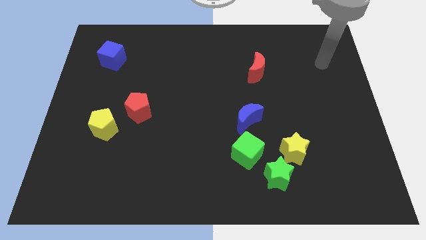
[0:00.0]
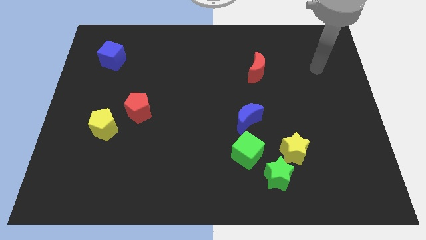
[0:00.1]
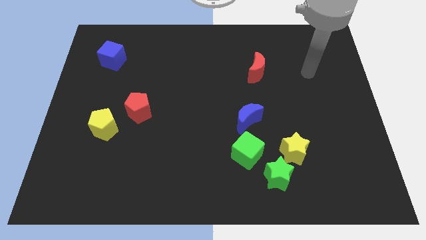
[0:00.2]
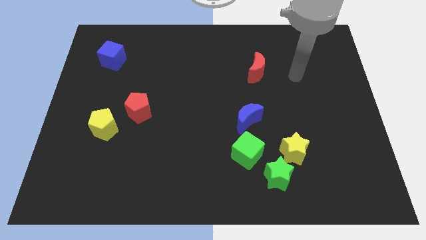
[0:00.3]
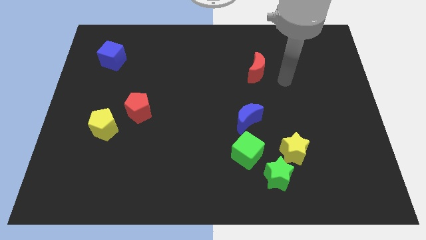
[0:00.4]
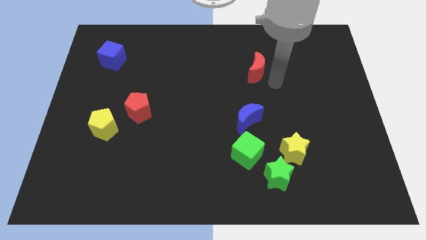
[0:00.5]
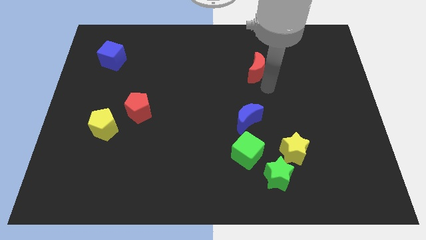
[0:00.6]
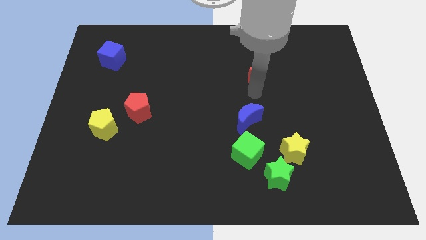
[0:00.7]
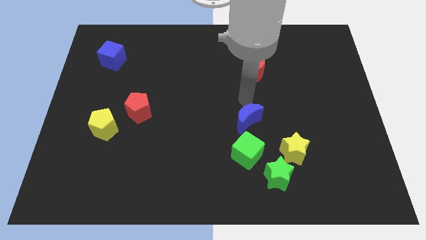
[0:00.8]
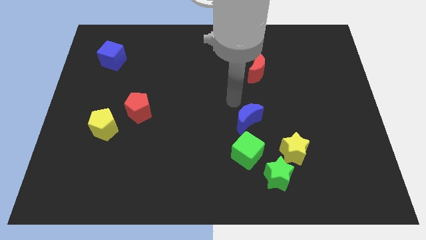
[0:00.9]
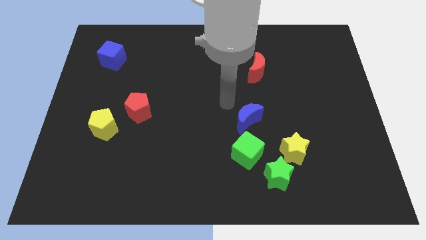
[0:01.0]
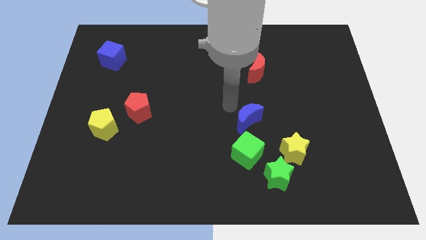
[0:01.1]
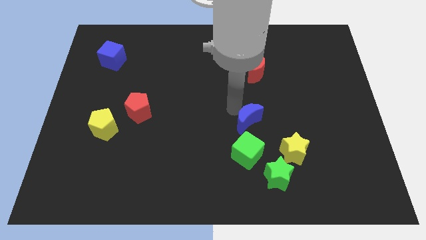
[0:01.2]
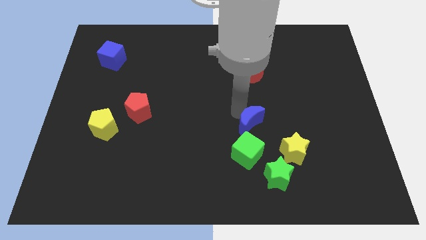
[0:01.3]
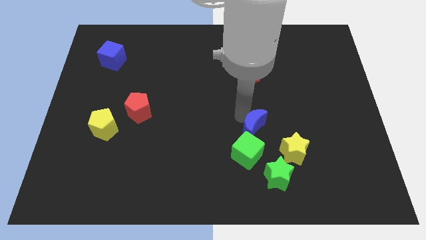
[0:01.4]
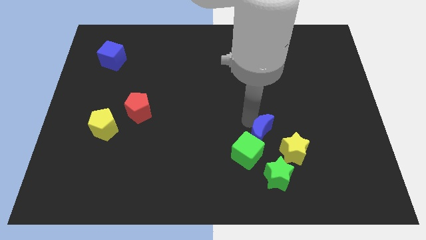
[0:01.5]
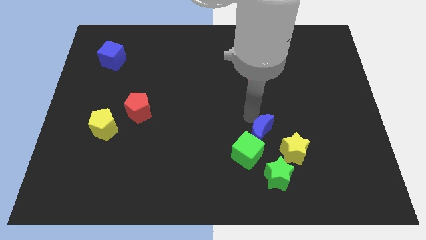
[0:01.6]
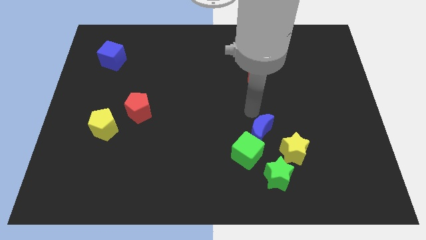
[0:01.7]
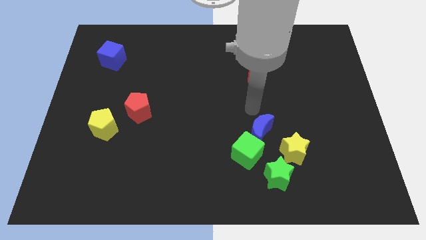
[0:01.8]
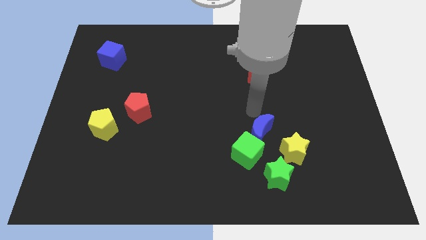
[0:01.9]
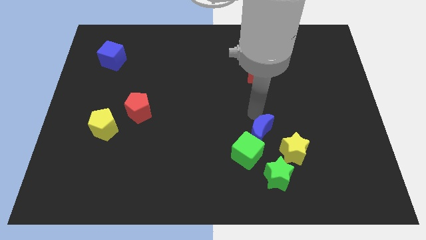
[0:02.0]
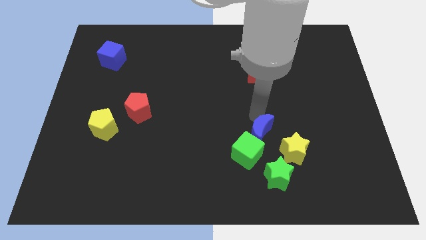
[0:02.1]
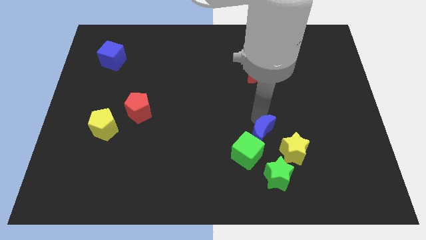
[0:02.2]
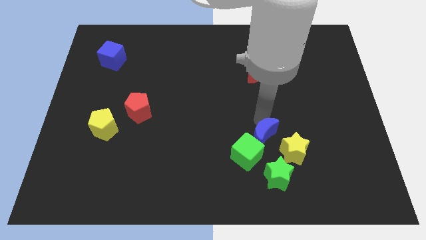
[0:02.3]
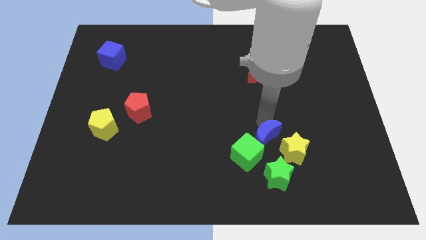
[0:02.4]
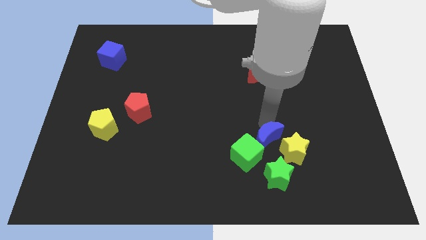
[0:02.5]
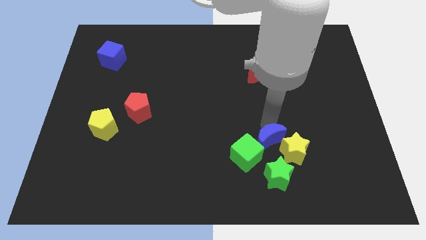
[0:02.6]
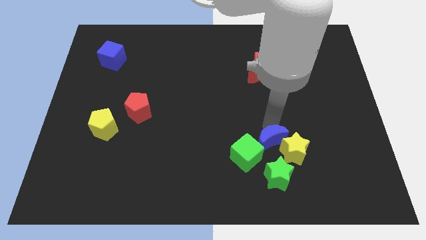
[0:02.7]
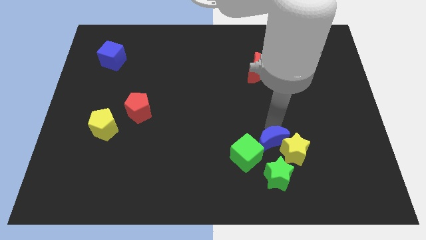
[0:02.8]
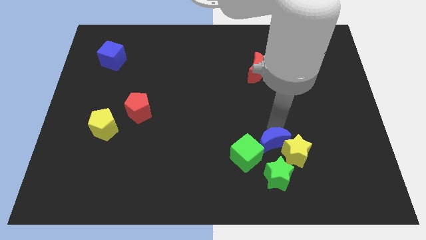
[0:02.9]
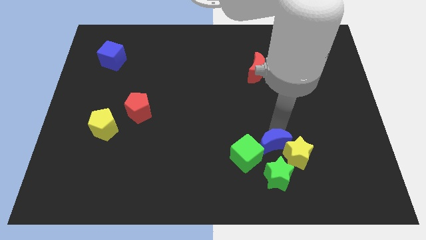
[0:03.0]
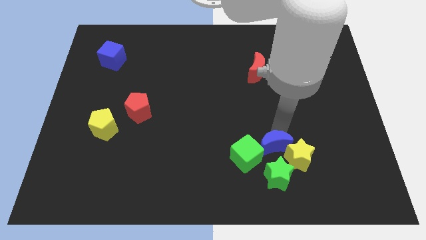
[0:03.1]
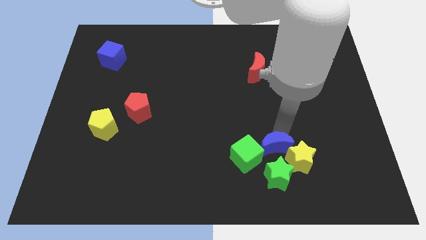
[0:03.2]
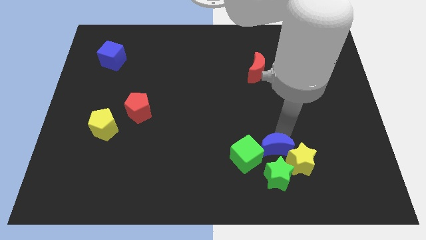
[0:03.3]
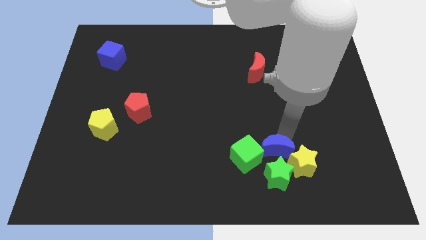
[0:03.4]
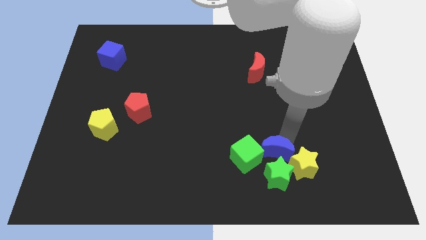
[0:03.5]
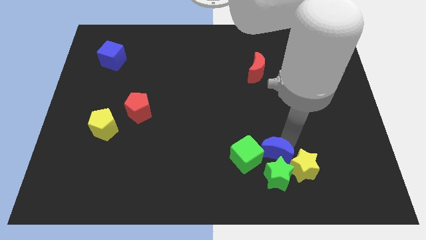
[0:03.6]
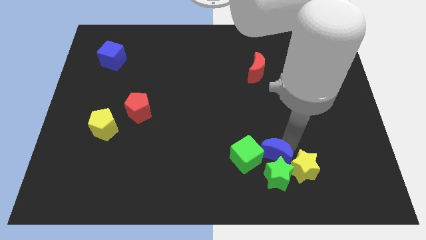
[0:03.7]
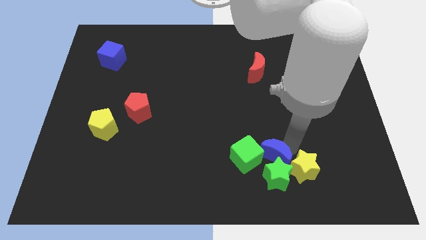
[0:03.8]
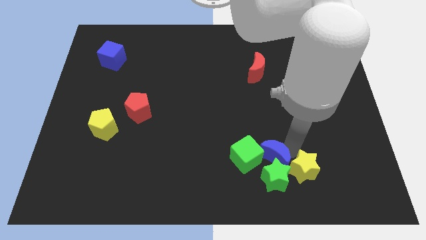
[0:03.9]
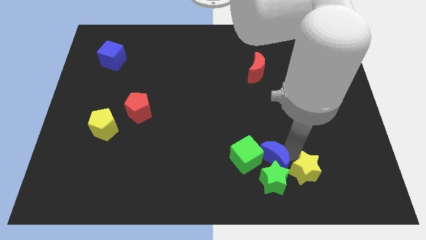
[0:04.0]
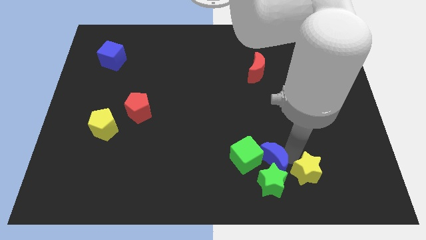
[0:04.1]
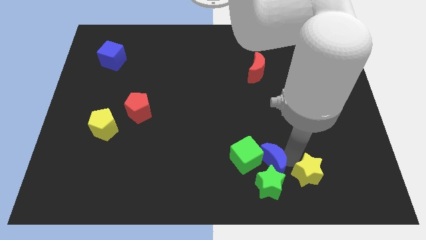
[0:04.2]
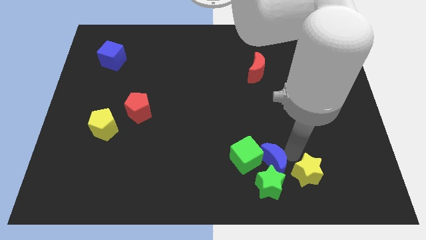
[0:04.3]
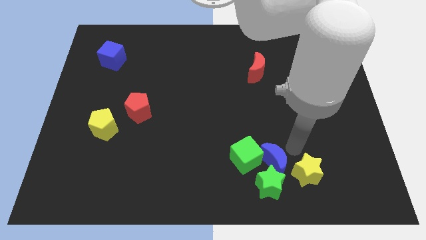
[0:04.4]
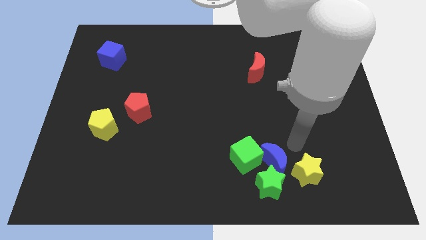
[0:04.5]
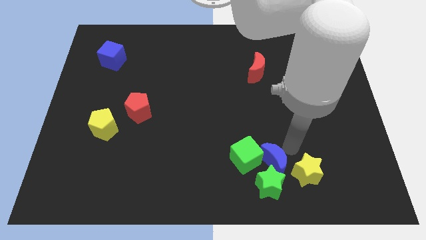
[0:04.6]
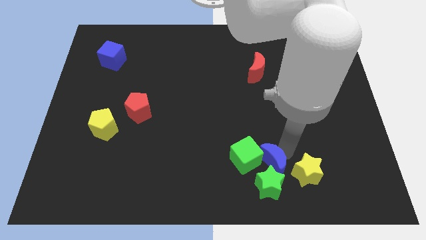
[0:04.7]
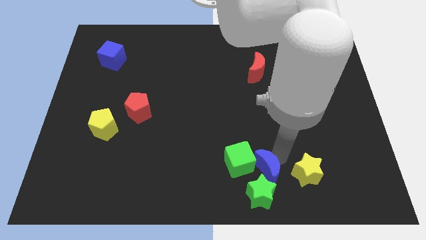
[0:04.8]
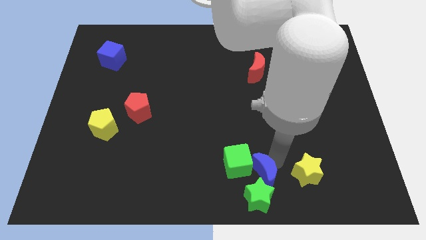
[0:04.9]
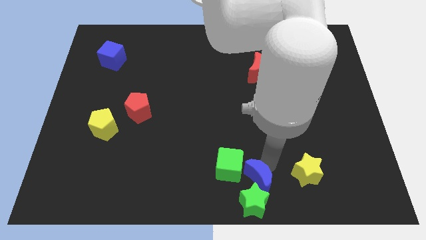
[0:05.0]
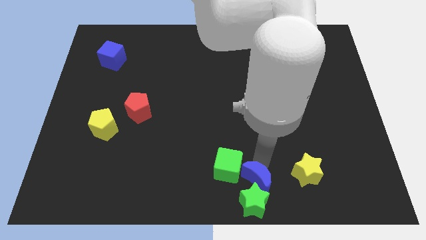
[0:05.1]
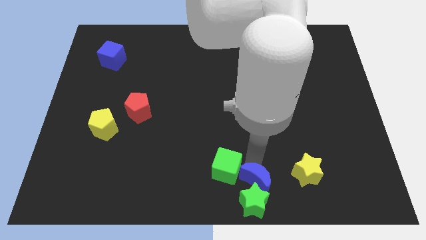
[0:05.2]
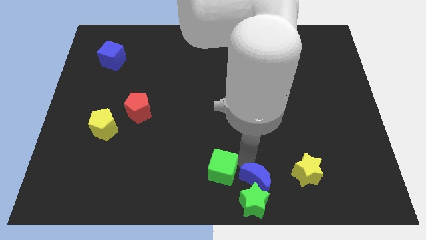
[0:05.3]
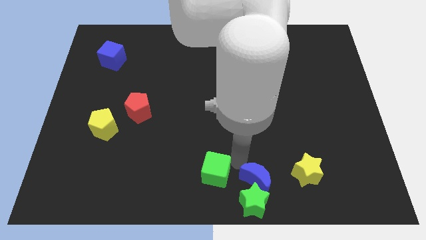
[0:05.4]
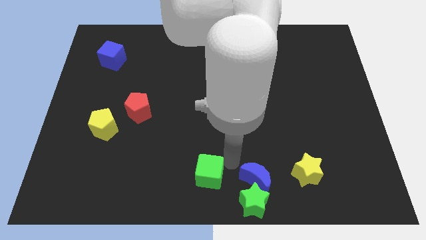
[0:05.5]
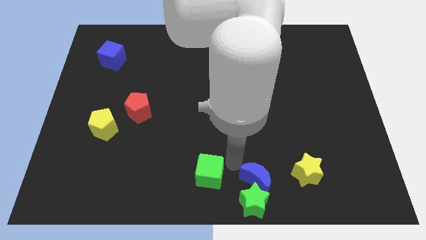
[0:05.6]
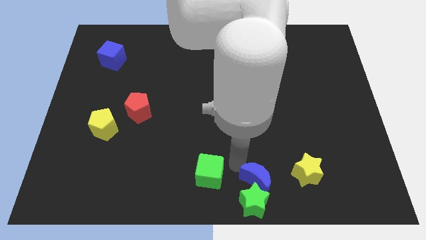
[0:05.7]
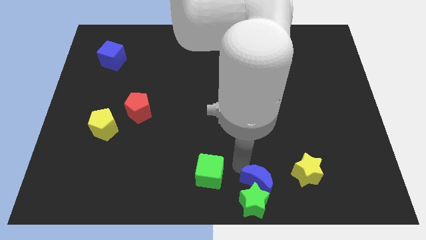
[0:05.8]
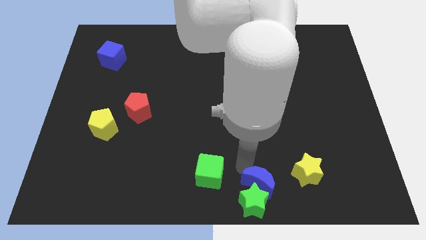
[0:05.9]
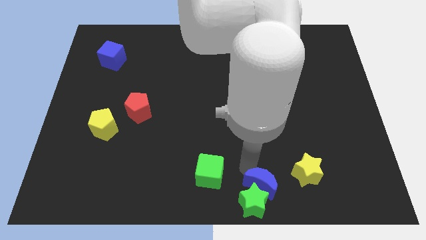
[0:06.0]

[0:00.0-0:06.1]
move the blue moon to the bottom left side of the yellow star

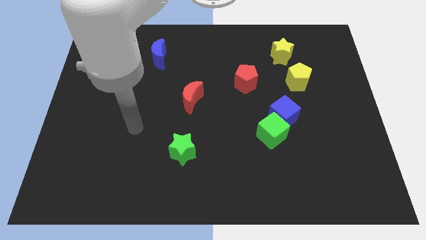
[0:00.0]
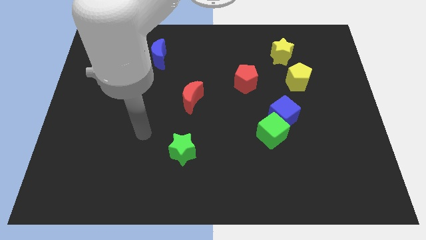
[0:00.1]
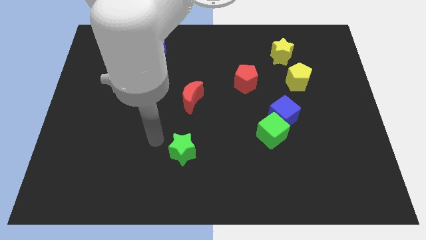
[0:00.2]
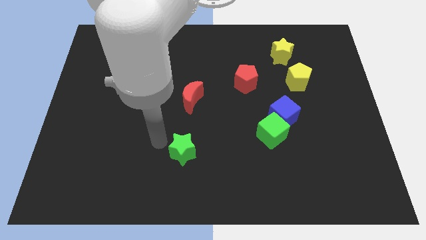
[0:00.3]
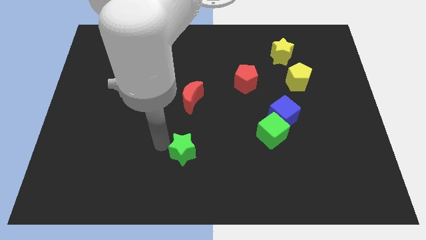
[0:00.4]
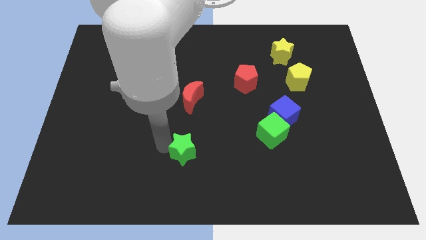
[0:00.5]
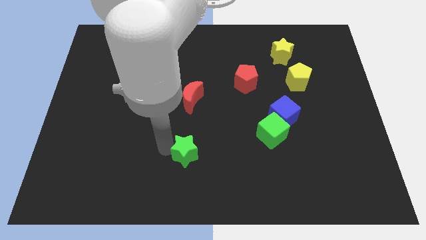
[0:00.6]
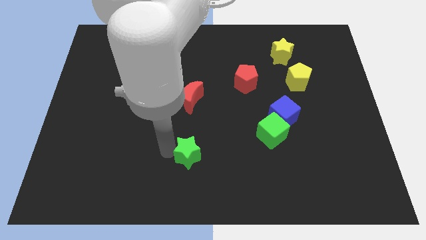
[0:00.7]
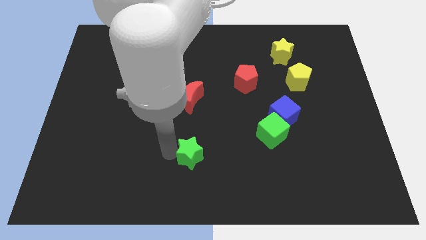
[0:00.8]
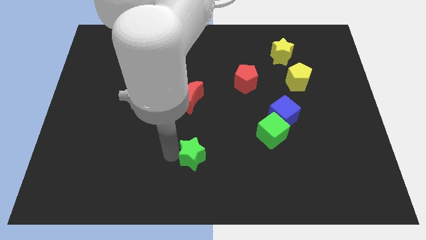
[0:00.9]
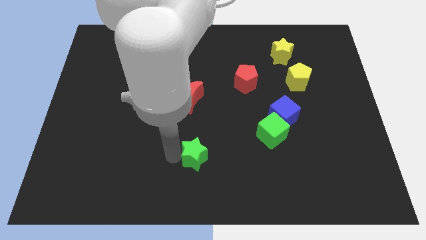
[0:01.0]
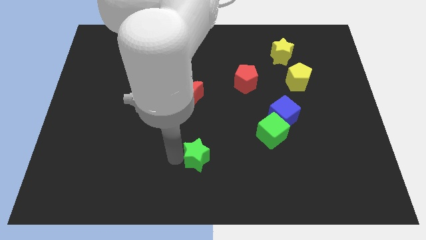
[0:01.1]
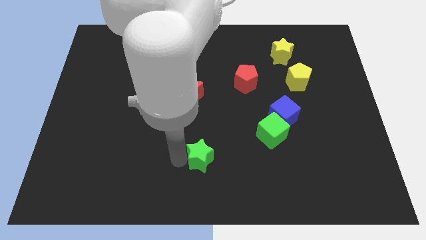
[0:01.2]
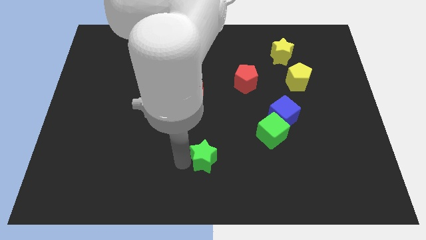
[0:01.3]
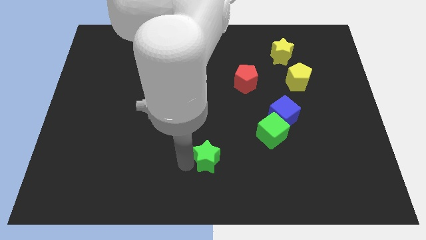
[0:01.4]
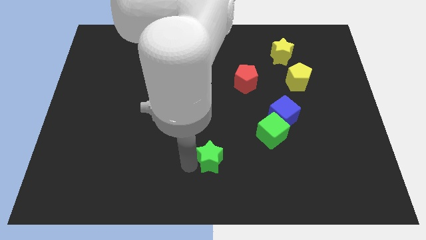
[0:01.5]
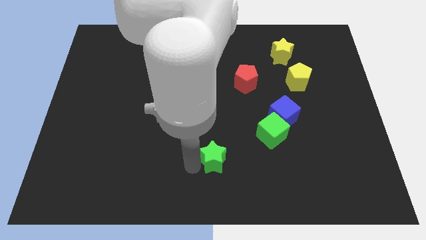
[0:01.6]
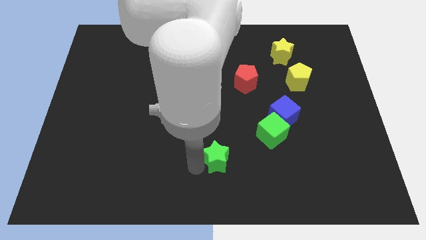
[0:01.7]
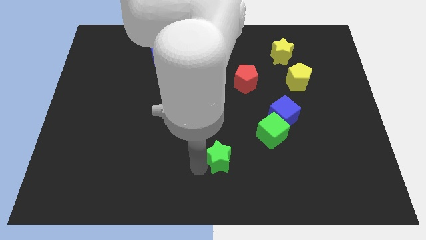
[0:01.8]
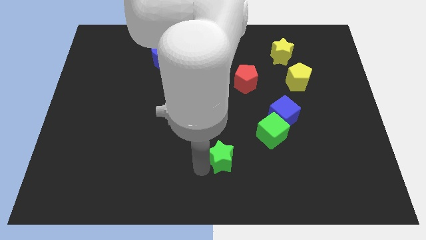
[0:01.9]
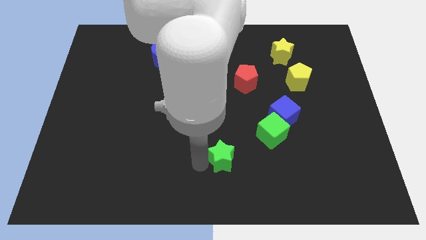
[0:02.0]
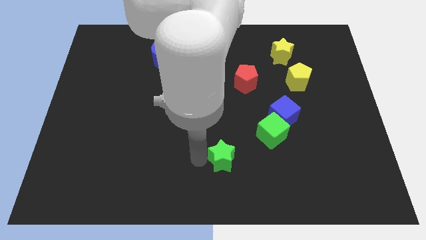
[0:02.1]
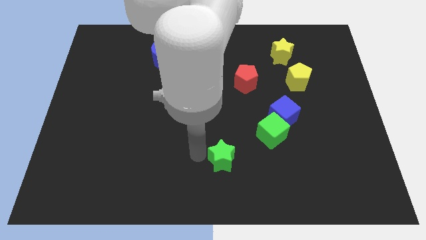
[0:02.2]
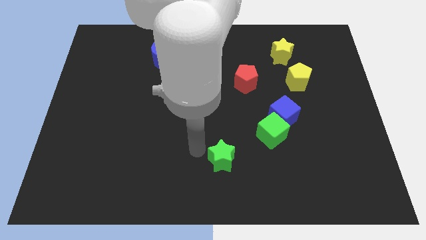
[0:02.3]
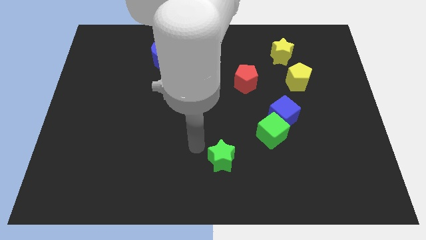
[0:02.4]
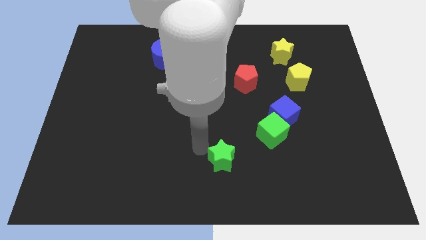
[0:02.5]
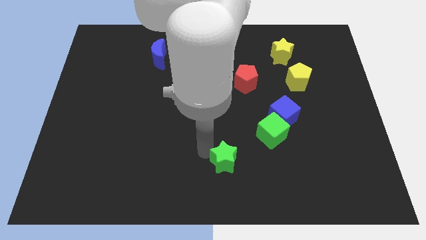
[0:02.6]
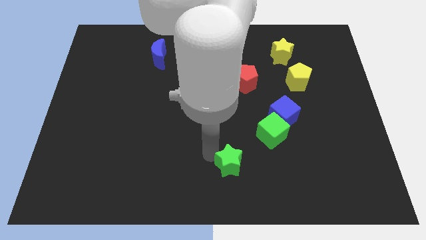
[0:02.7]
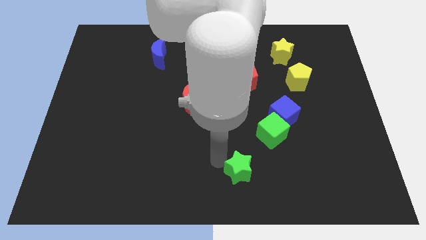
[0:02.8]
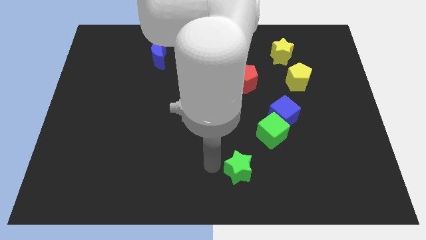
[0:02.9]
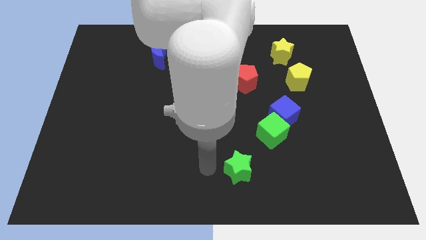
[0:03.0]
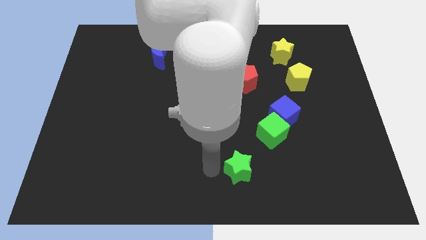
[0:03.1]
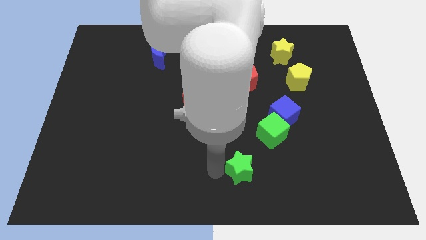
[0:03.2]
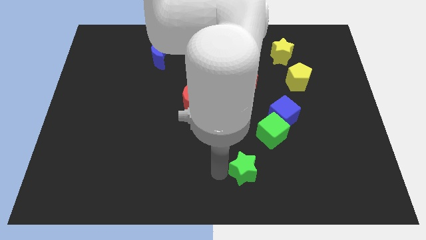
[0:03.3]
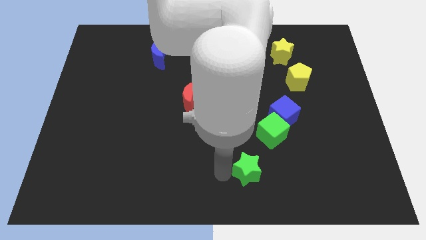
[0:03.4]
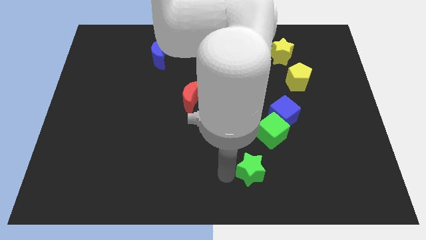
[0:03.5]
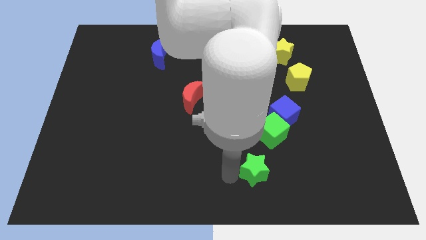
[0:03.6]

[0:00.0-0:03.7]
slide the green star below the green cube
